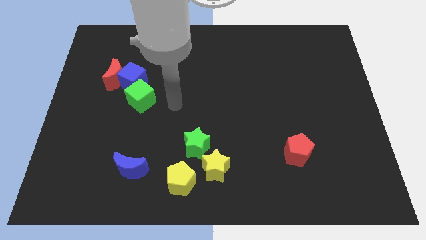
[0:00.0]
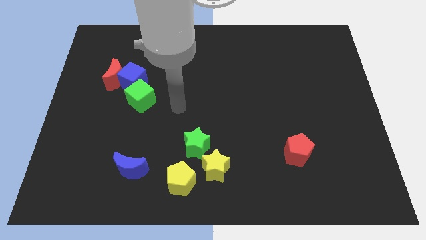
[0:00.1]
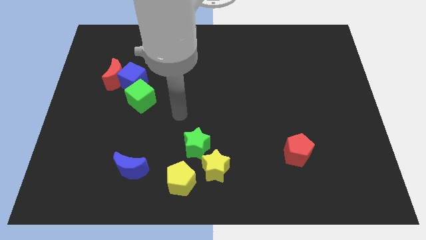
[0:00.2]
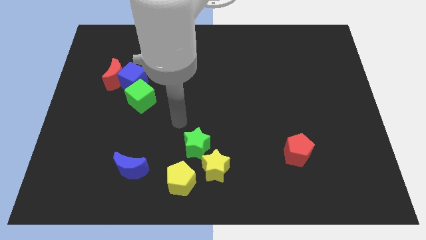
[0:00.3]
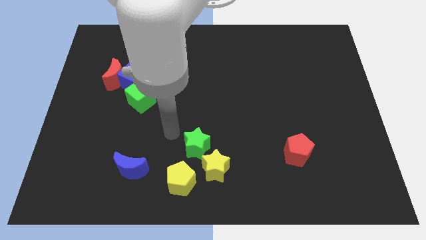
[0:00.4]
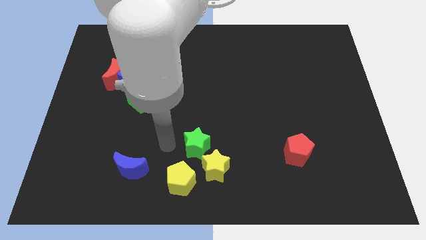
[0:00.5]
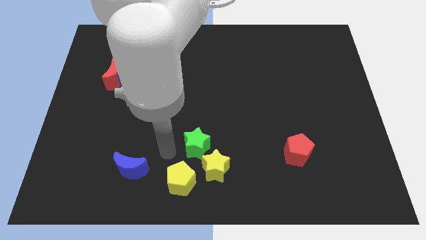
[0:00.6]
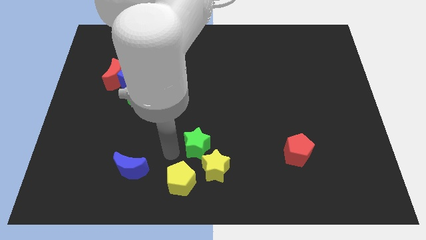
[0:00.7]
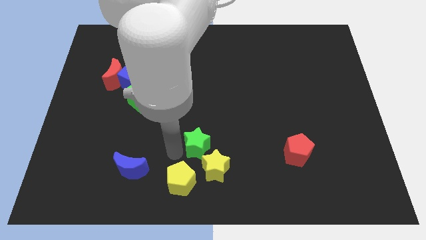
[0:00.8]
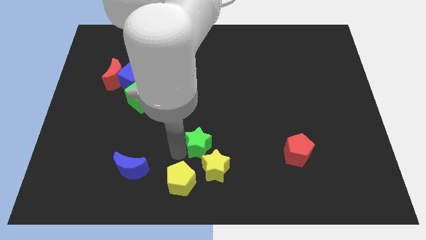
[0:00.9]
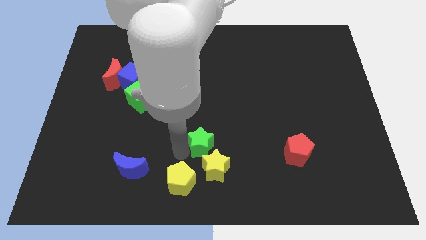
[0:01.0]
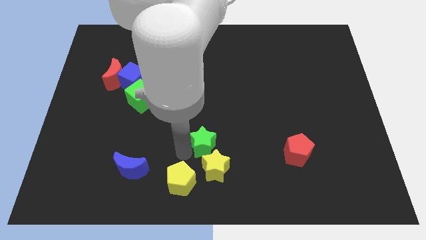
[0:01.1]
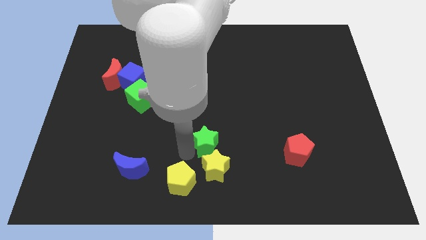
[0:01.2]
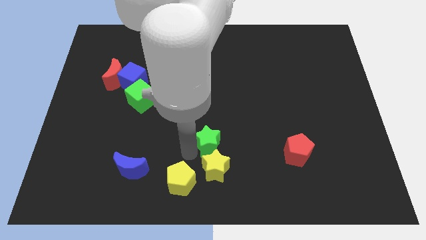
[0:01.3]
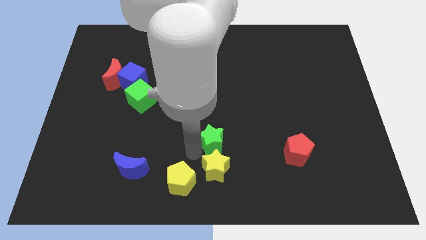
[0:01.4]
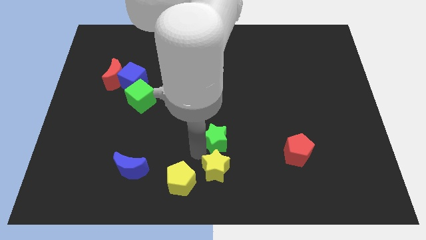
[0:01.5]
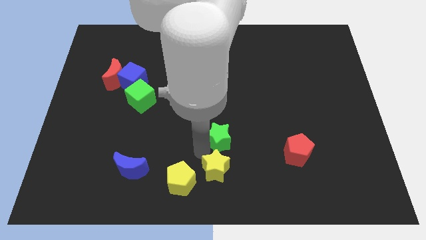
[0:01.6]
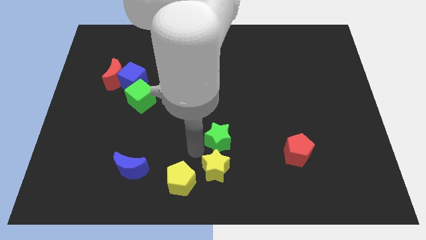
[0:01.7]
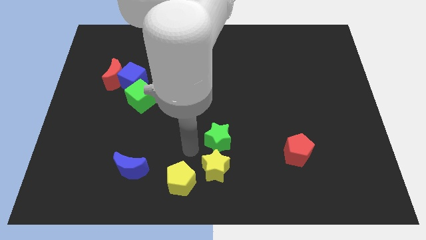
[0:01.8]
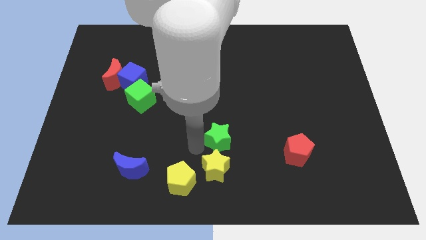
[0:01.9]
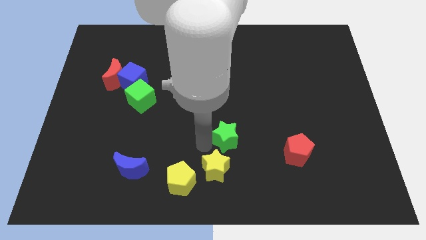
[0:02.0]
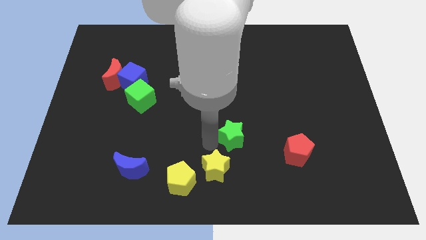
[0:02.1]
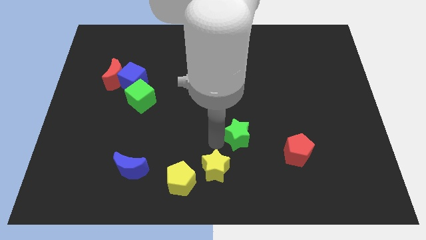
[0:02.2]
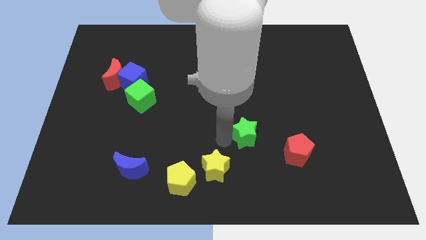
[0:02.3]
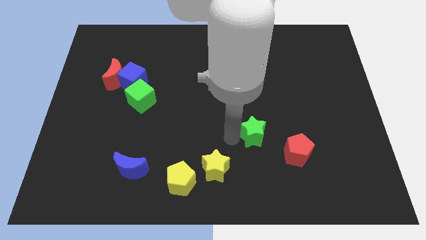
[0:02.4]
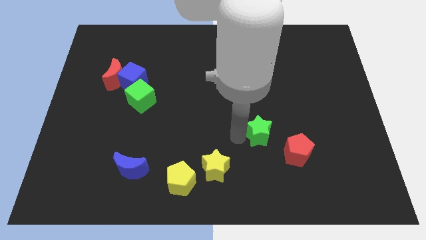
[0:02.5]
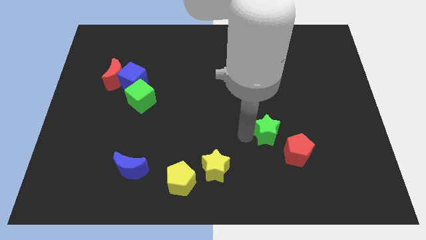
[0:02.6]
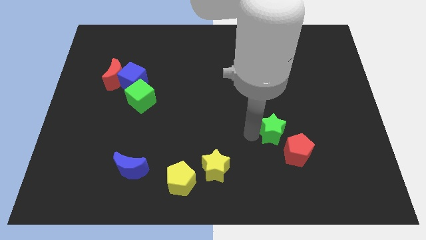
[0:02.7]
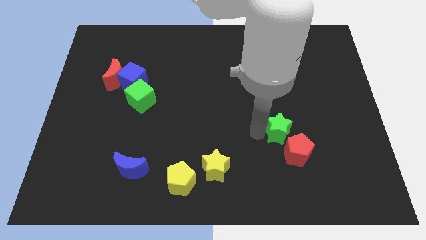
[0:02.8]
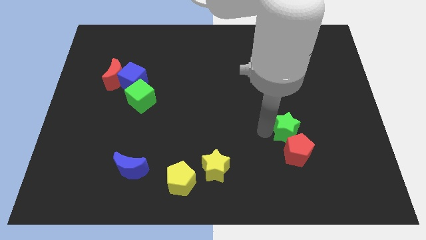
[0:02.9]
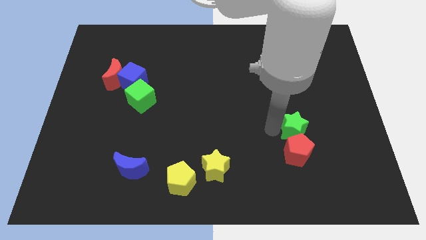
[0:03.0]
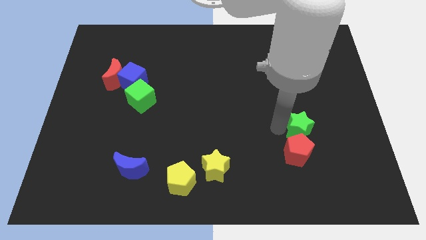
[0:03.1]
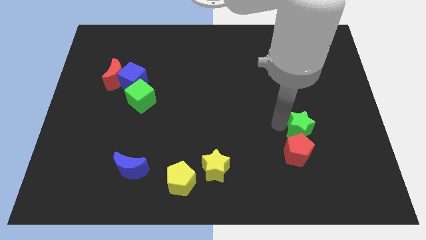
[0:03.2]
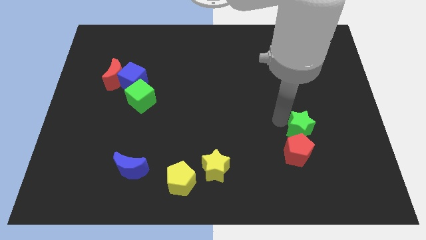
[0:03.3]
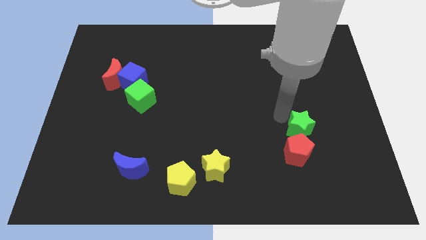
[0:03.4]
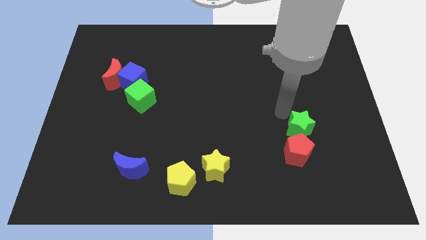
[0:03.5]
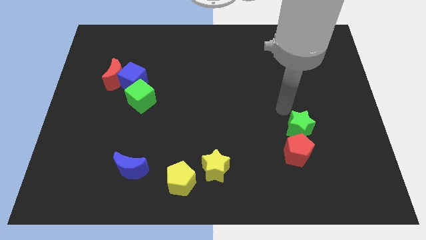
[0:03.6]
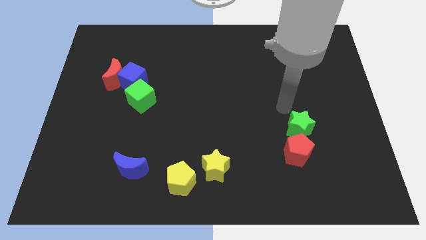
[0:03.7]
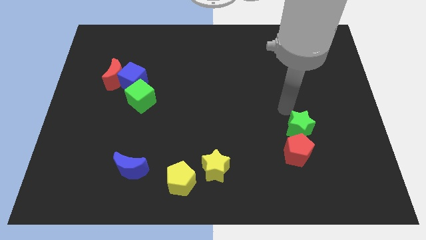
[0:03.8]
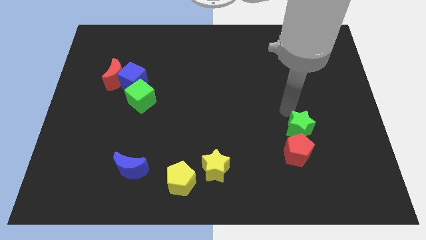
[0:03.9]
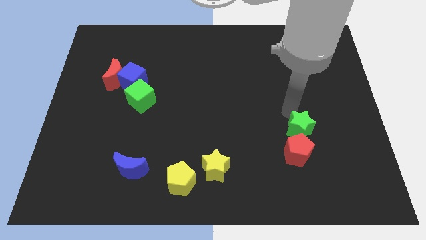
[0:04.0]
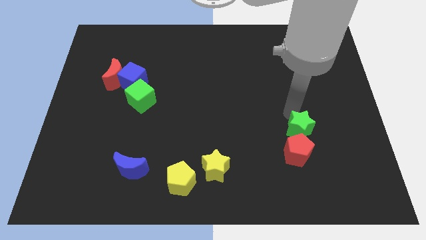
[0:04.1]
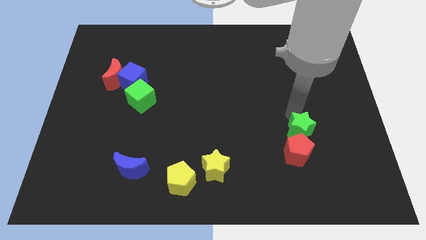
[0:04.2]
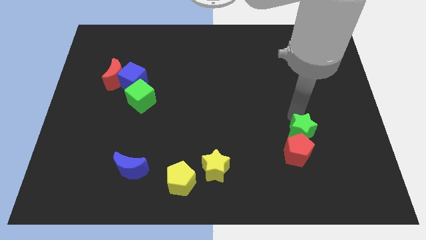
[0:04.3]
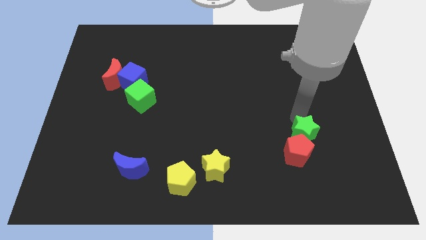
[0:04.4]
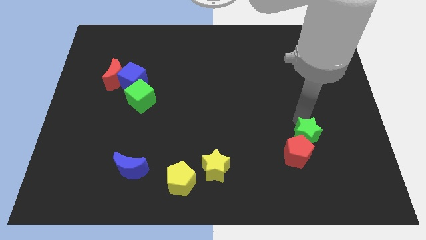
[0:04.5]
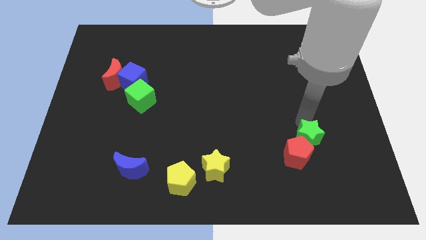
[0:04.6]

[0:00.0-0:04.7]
slide the green star just right of the red pentagon

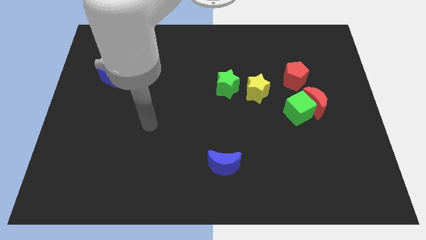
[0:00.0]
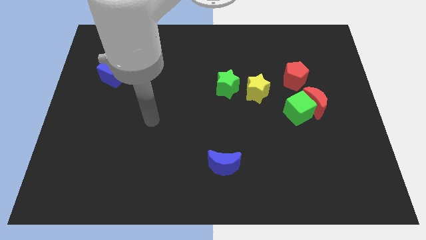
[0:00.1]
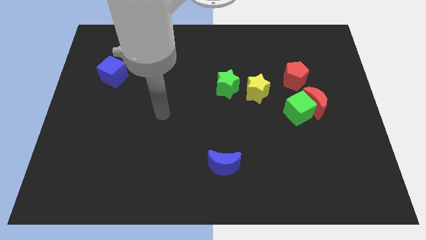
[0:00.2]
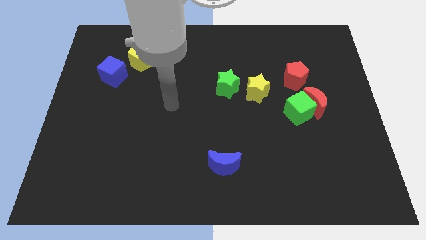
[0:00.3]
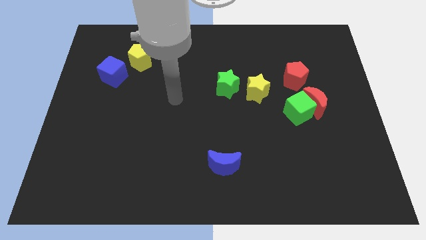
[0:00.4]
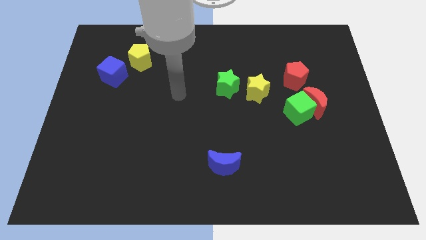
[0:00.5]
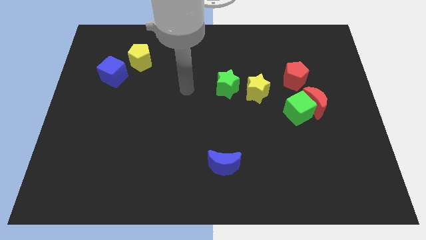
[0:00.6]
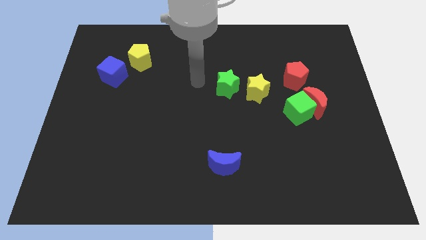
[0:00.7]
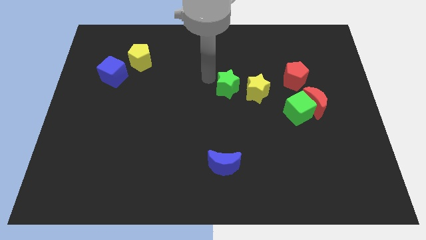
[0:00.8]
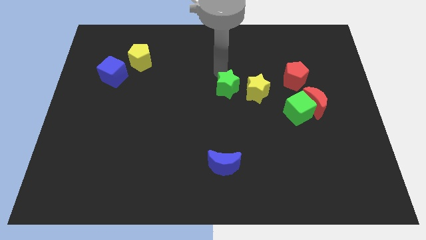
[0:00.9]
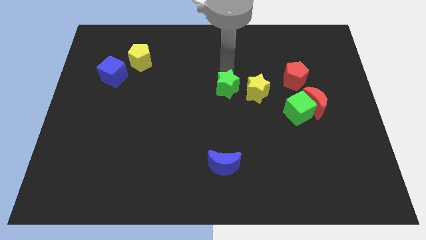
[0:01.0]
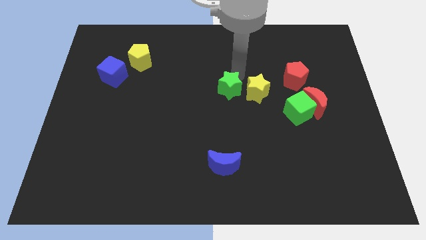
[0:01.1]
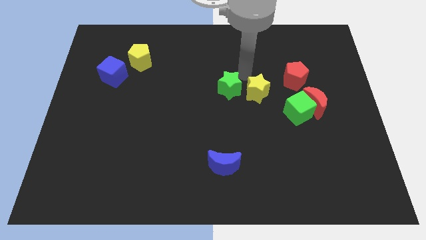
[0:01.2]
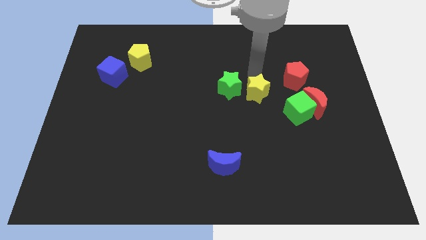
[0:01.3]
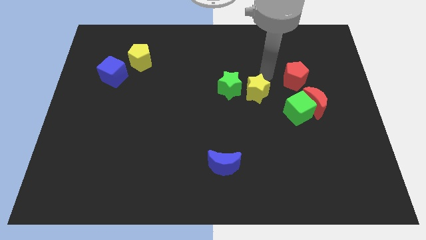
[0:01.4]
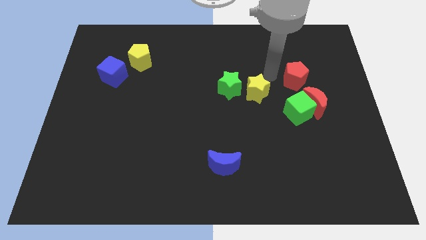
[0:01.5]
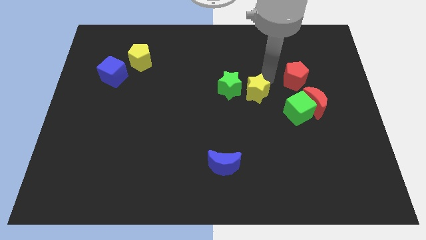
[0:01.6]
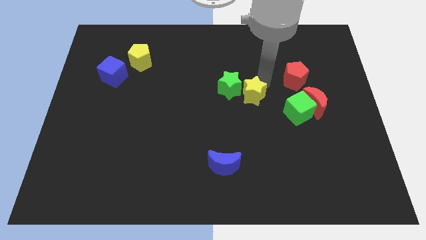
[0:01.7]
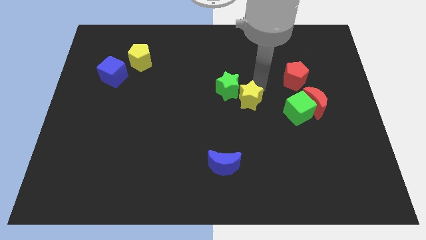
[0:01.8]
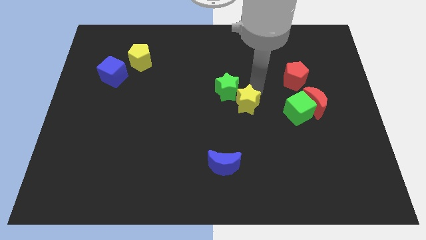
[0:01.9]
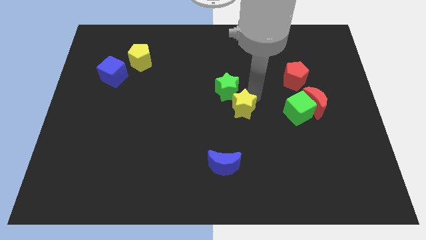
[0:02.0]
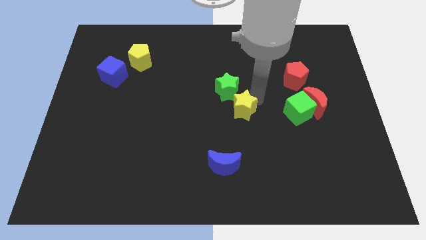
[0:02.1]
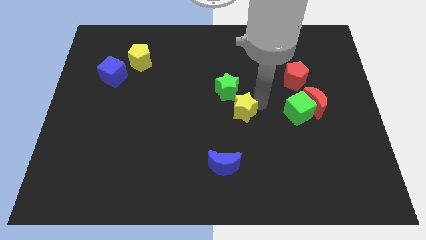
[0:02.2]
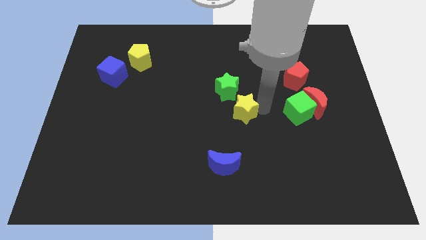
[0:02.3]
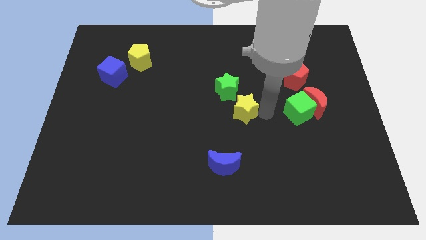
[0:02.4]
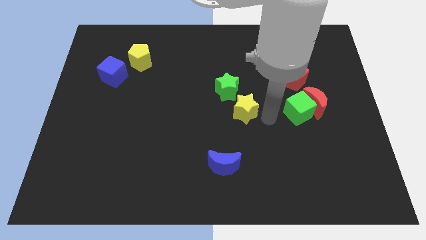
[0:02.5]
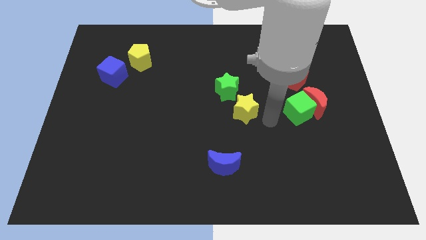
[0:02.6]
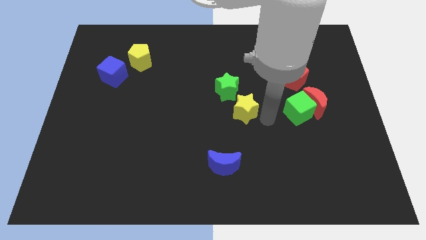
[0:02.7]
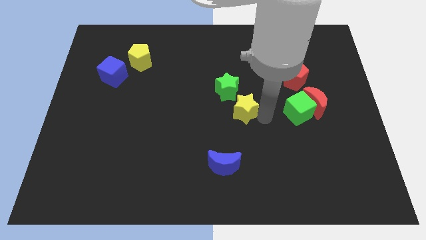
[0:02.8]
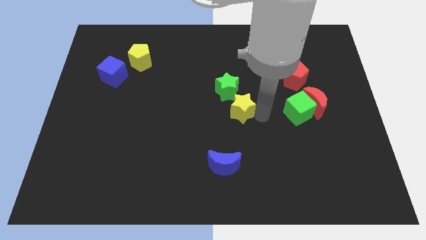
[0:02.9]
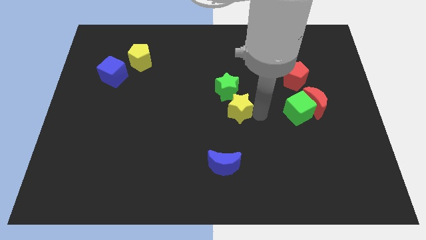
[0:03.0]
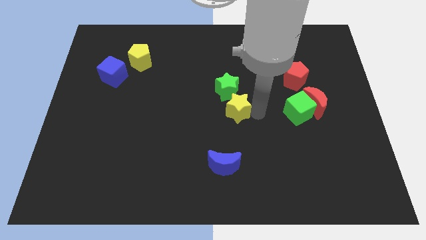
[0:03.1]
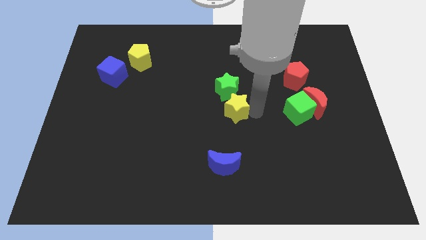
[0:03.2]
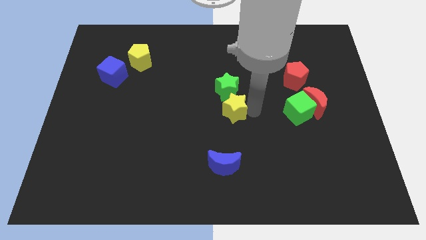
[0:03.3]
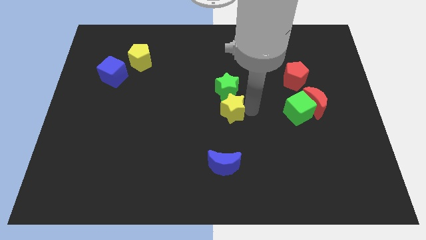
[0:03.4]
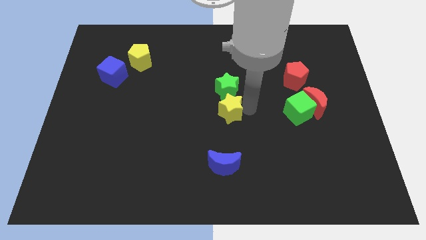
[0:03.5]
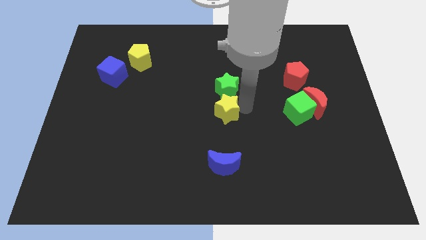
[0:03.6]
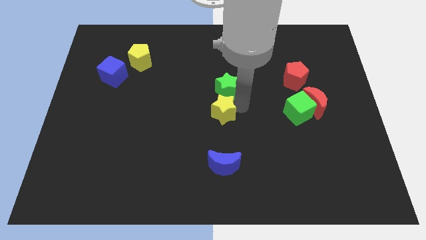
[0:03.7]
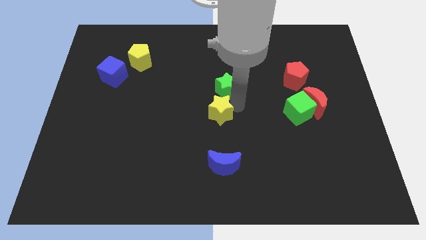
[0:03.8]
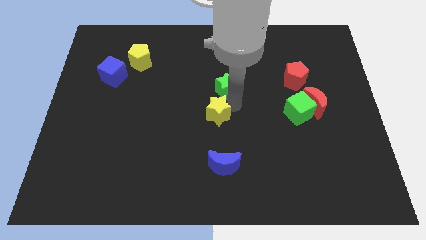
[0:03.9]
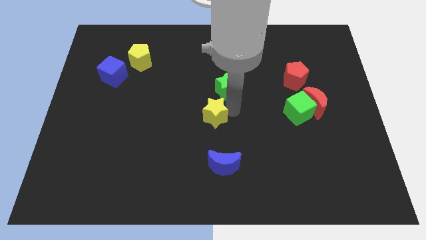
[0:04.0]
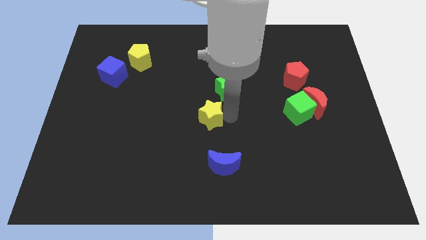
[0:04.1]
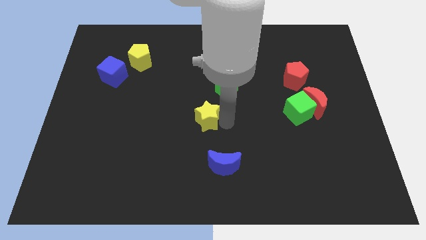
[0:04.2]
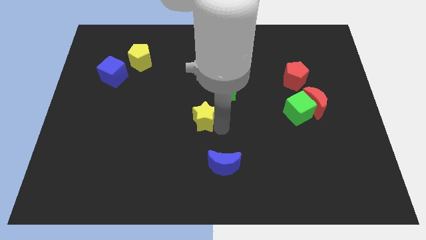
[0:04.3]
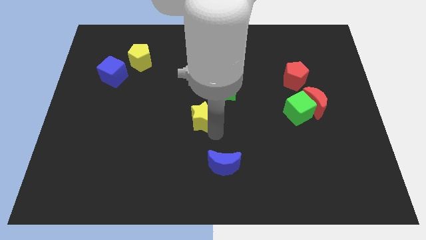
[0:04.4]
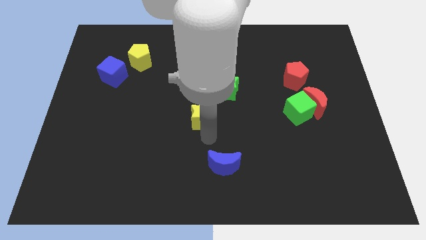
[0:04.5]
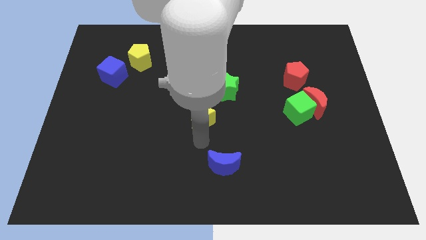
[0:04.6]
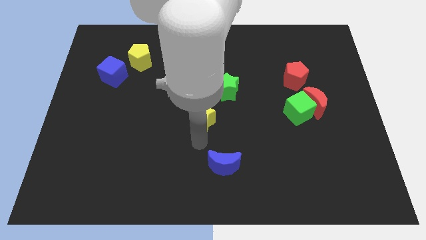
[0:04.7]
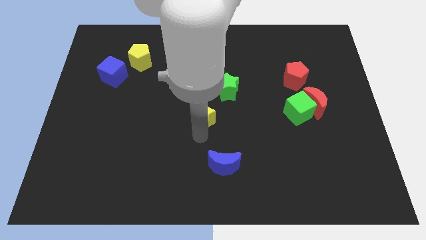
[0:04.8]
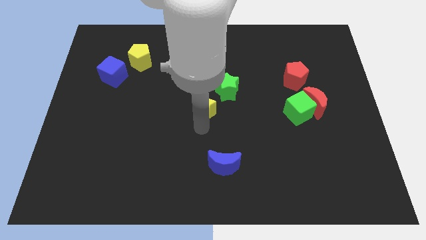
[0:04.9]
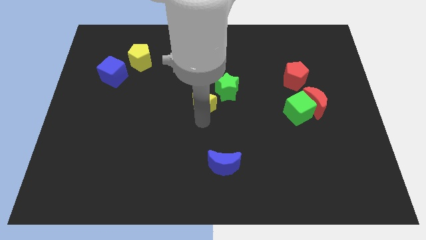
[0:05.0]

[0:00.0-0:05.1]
put the yellow star to the left of the green star
